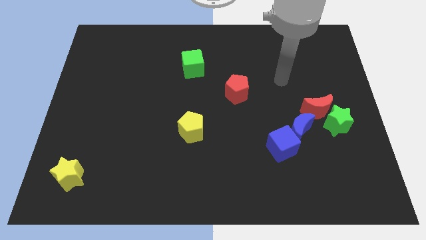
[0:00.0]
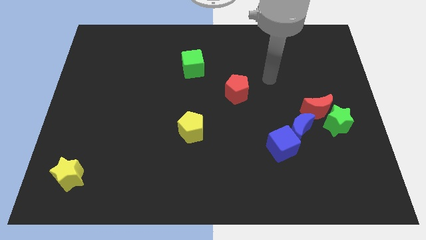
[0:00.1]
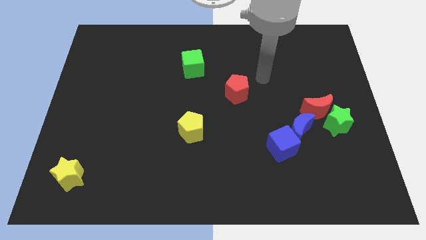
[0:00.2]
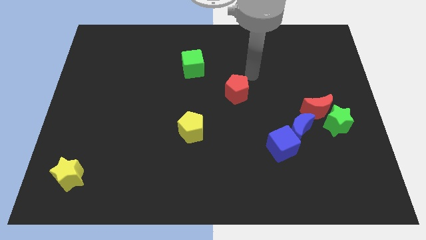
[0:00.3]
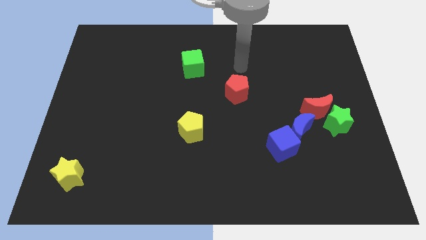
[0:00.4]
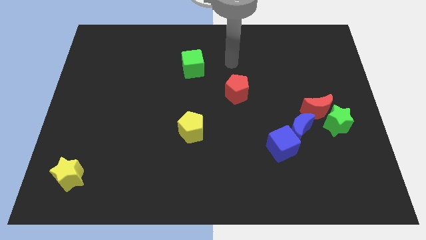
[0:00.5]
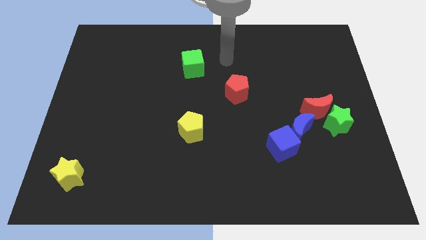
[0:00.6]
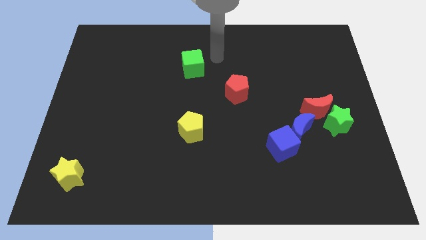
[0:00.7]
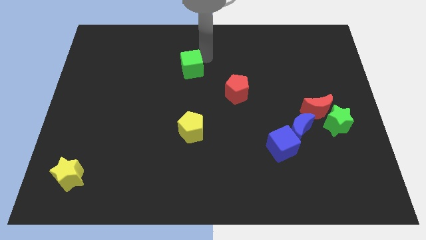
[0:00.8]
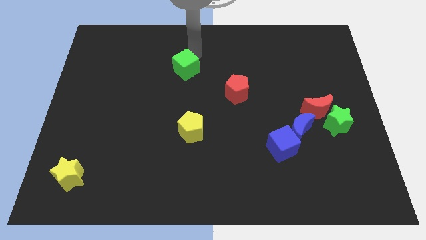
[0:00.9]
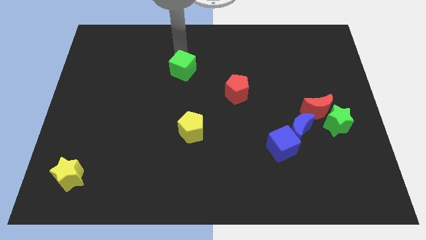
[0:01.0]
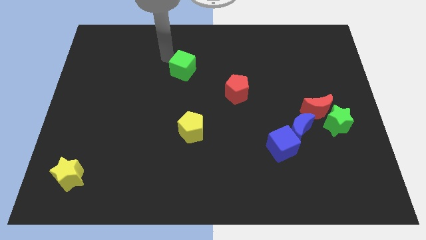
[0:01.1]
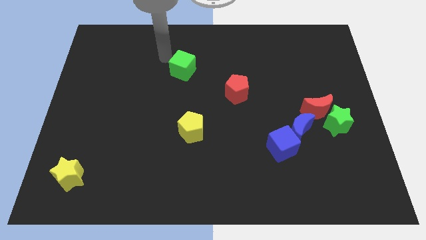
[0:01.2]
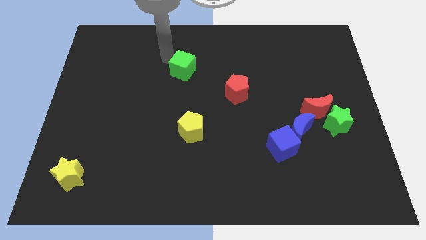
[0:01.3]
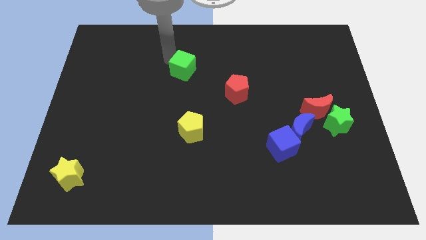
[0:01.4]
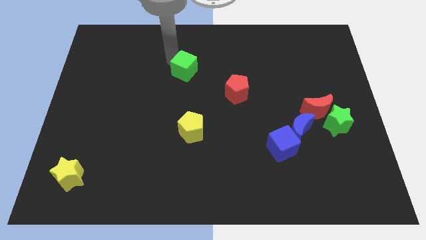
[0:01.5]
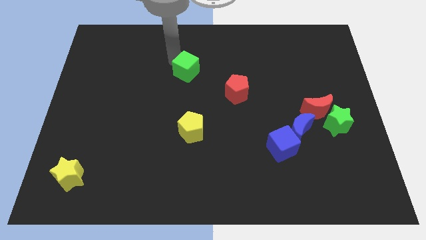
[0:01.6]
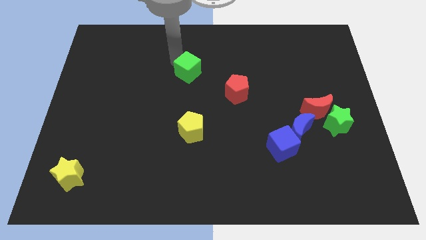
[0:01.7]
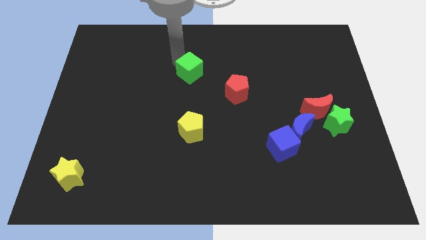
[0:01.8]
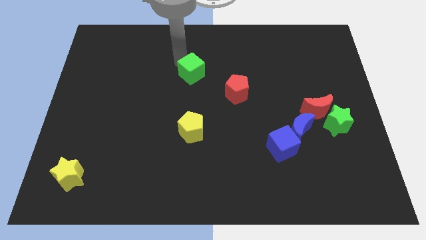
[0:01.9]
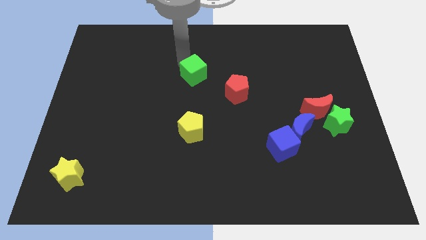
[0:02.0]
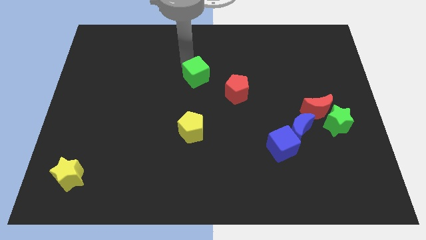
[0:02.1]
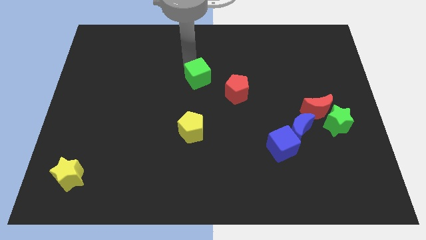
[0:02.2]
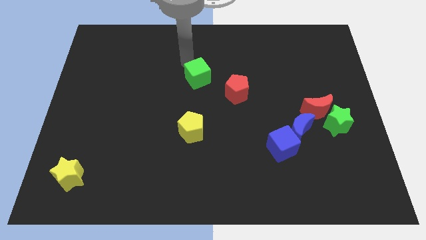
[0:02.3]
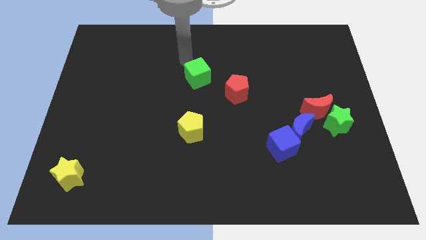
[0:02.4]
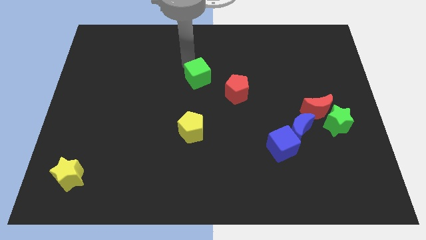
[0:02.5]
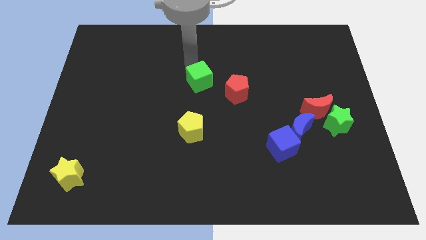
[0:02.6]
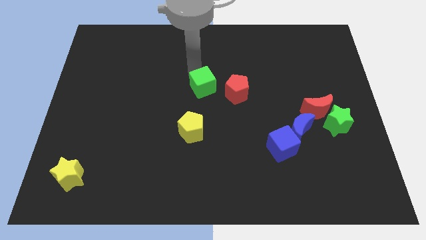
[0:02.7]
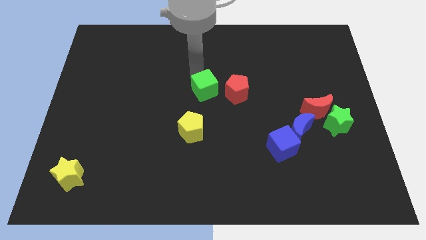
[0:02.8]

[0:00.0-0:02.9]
slightly move the green cube downwards and then right

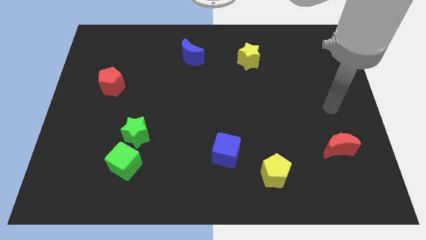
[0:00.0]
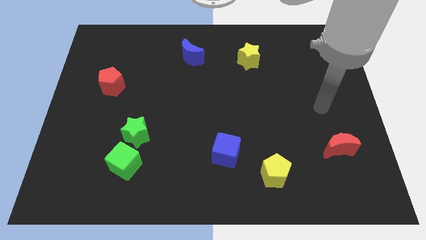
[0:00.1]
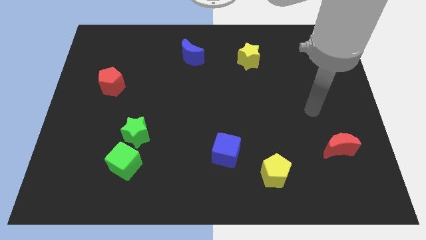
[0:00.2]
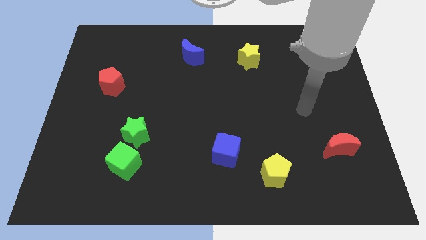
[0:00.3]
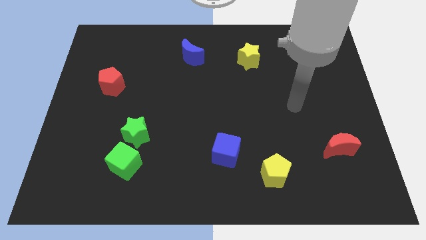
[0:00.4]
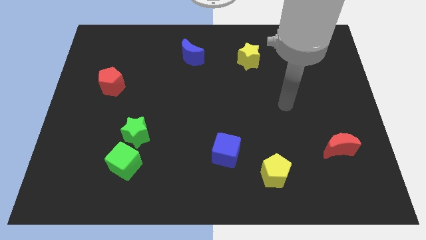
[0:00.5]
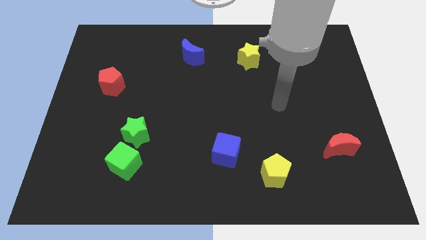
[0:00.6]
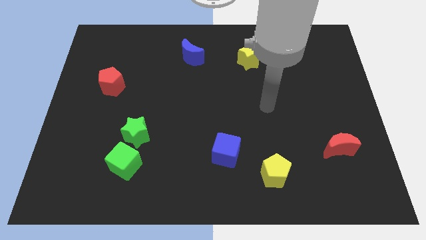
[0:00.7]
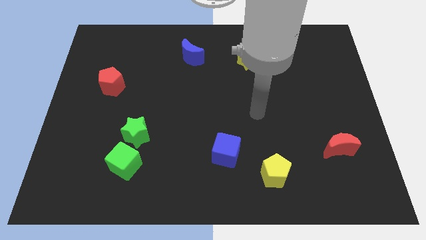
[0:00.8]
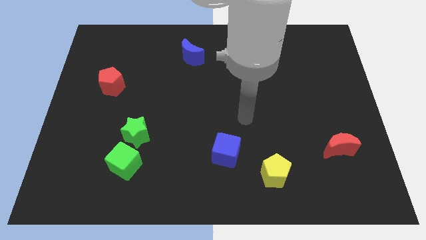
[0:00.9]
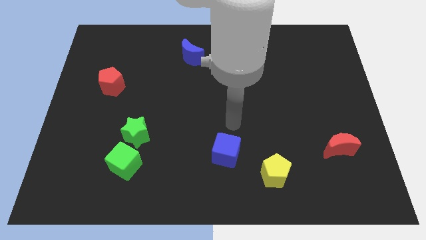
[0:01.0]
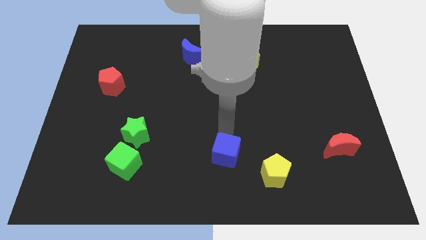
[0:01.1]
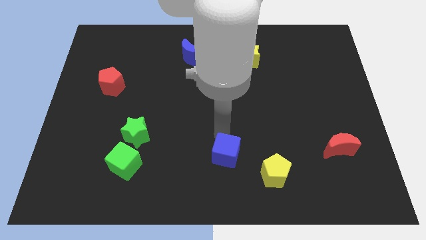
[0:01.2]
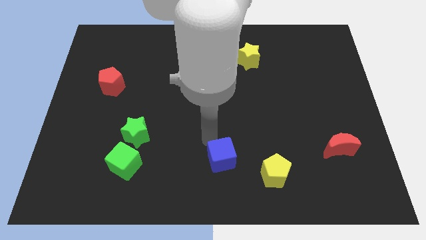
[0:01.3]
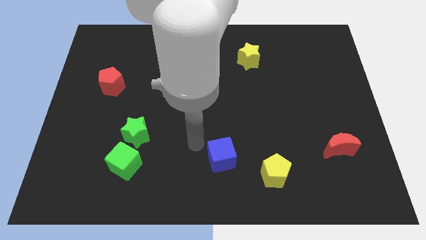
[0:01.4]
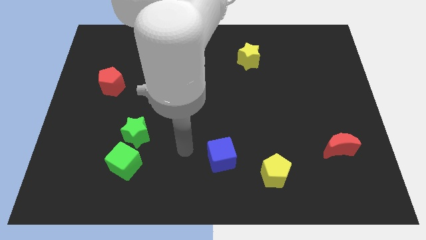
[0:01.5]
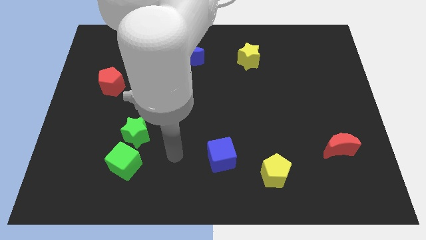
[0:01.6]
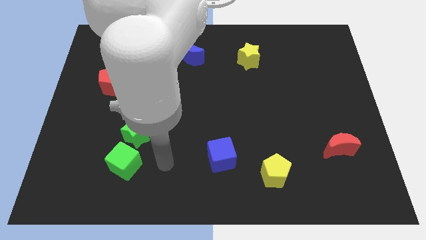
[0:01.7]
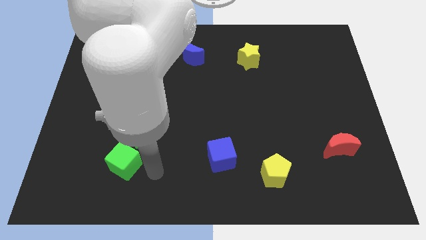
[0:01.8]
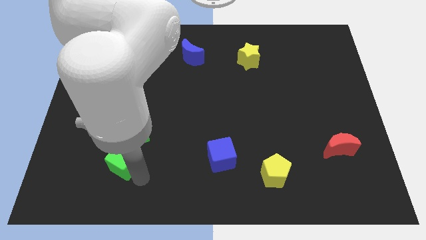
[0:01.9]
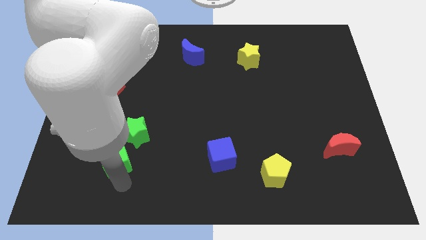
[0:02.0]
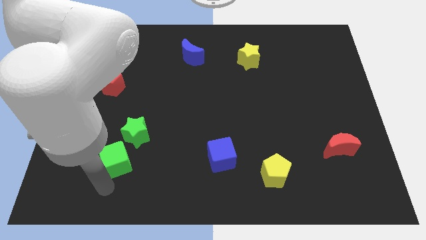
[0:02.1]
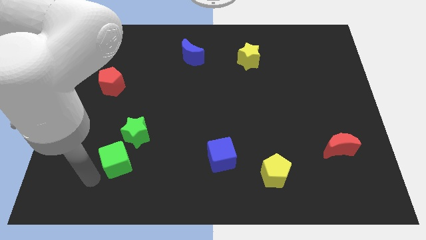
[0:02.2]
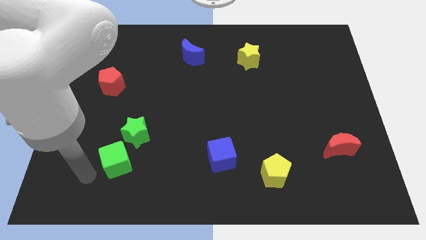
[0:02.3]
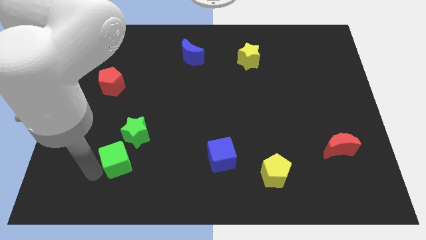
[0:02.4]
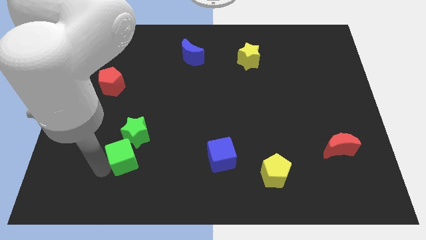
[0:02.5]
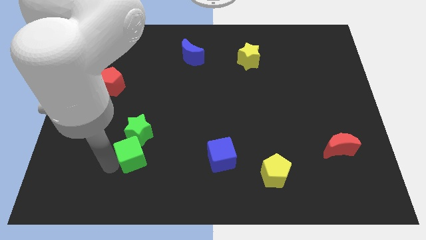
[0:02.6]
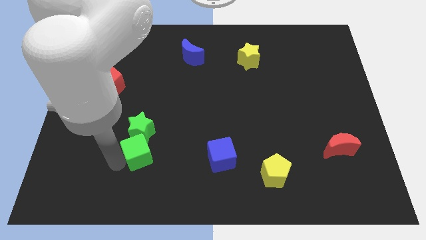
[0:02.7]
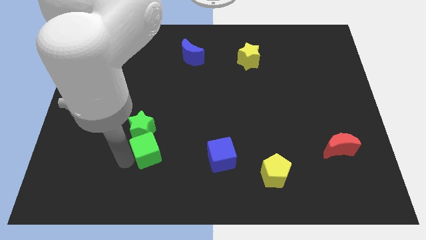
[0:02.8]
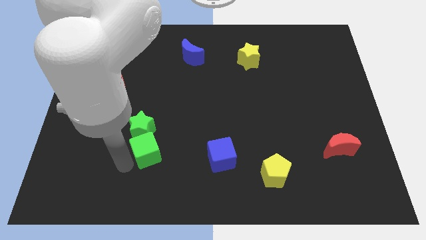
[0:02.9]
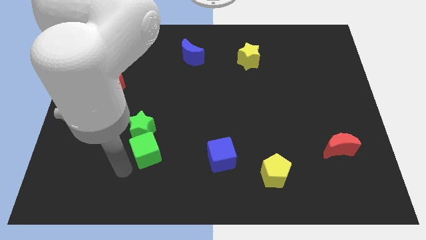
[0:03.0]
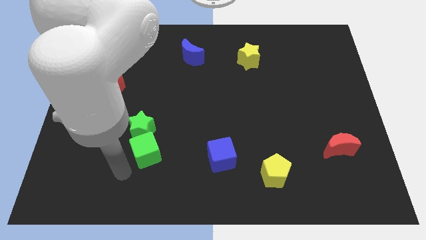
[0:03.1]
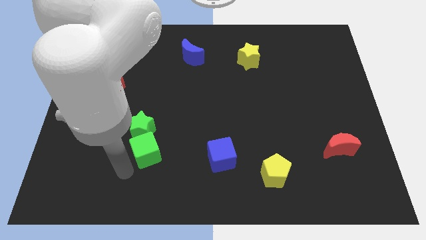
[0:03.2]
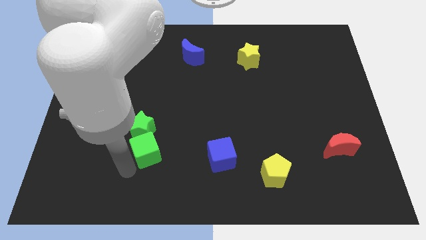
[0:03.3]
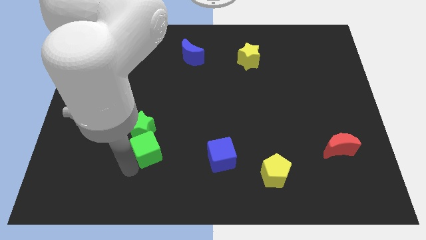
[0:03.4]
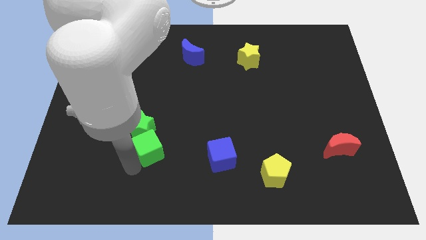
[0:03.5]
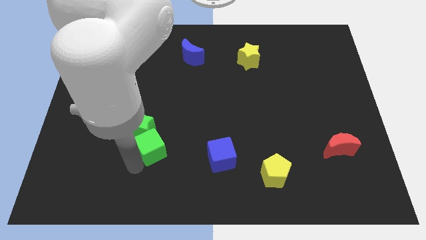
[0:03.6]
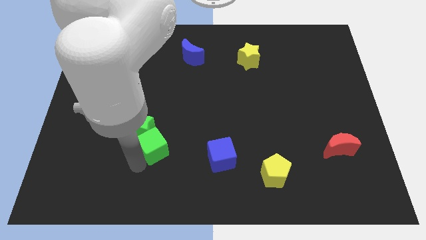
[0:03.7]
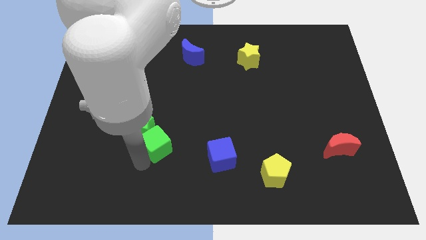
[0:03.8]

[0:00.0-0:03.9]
push the green cube somewhat up and then to the right

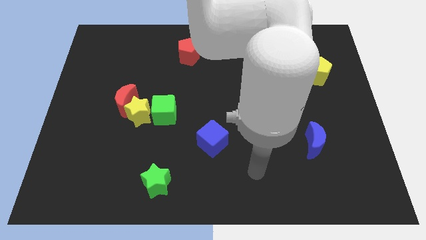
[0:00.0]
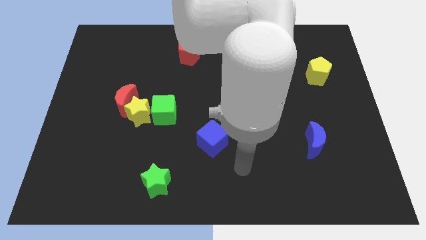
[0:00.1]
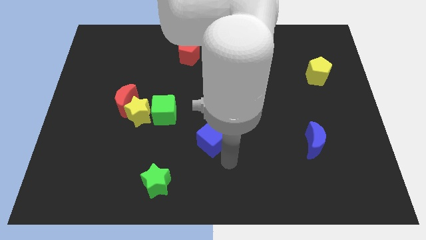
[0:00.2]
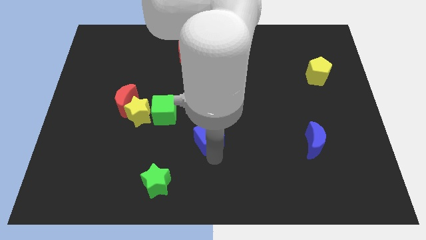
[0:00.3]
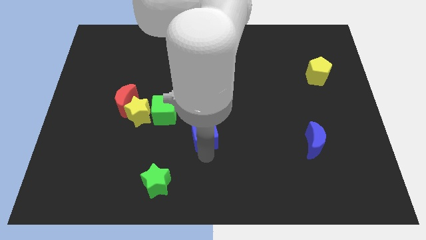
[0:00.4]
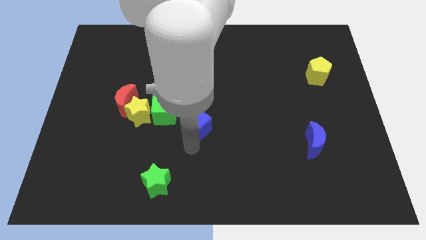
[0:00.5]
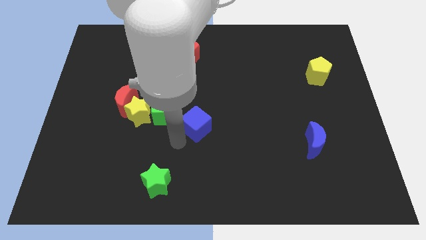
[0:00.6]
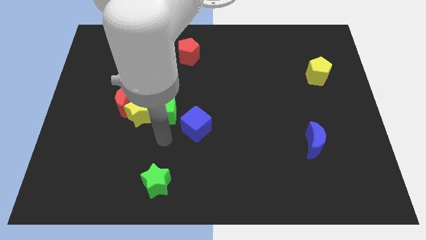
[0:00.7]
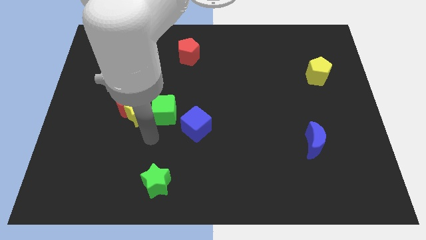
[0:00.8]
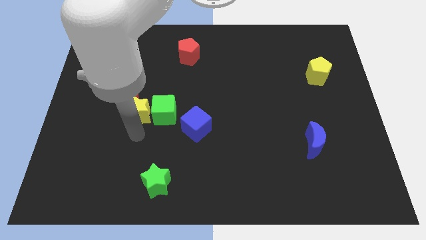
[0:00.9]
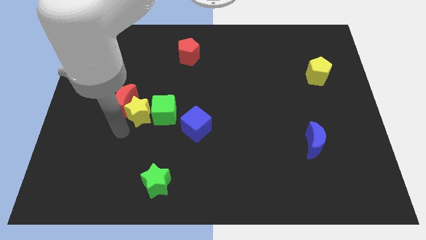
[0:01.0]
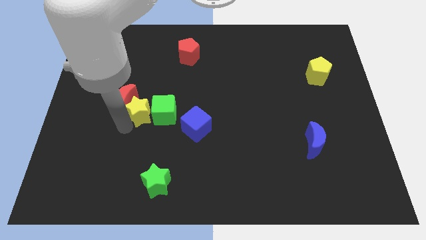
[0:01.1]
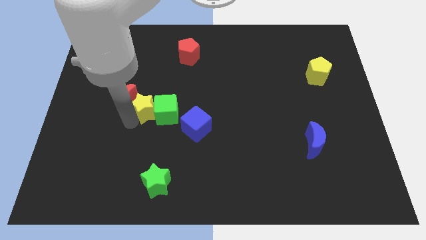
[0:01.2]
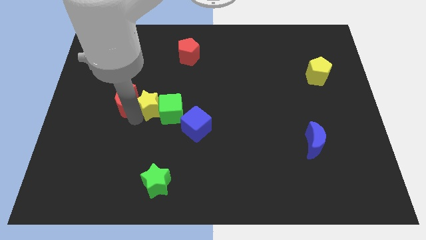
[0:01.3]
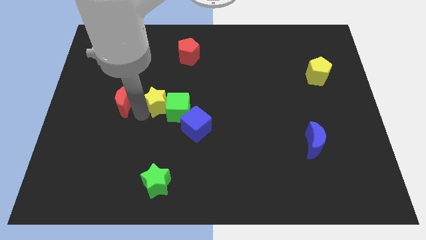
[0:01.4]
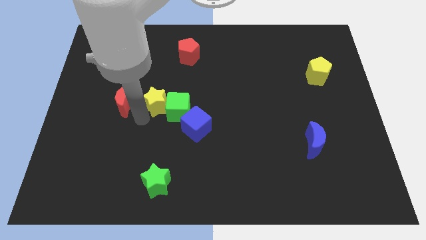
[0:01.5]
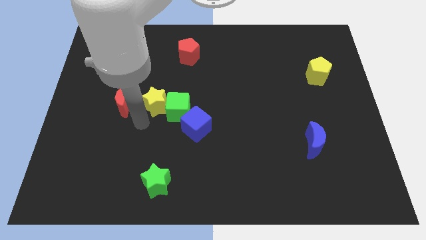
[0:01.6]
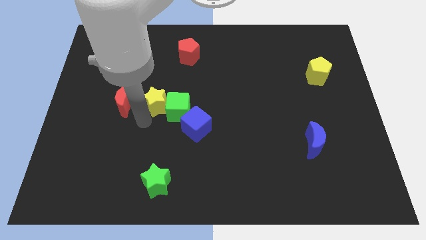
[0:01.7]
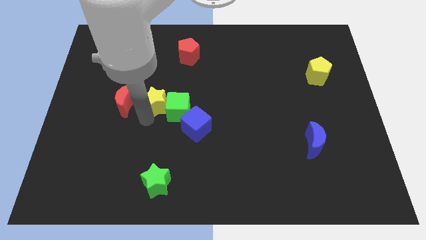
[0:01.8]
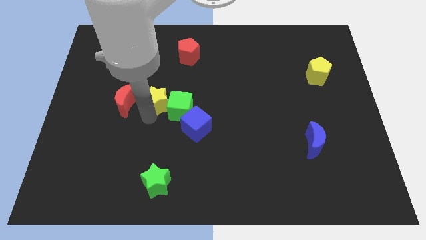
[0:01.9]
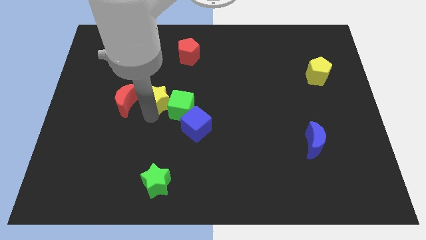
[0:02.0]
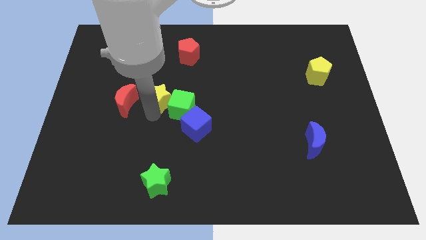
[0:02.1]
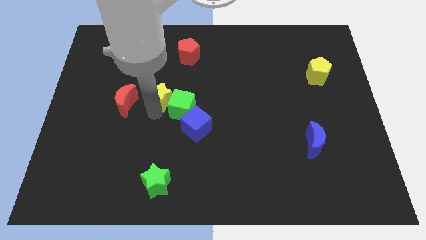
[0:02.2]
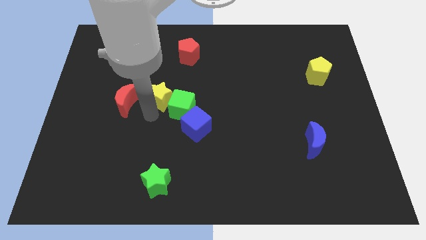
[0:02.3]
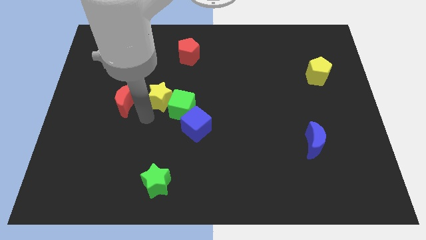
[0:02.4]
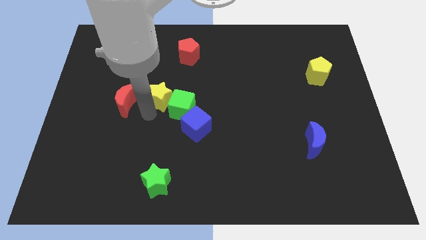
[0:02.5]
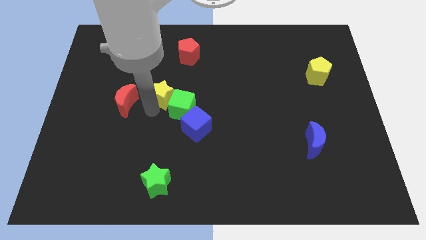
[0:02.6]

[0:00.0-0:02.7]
slightly move the yellow star upwards and to the right diagonally
